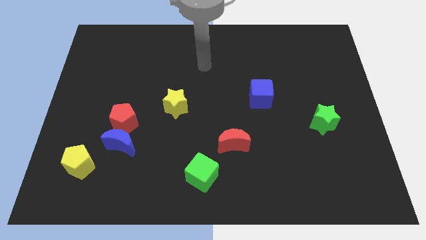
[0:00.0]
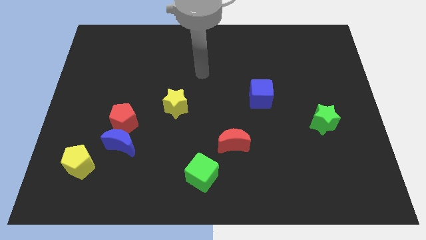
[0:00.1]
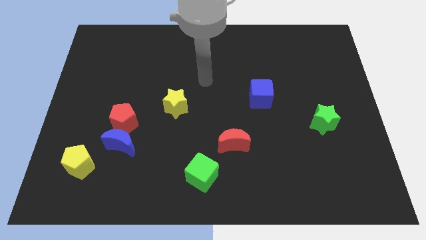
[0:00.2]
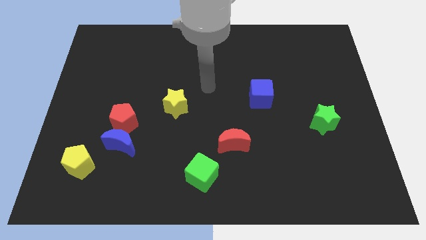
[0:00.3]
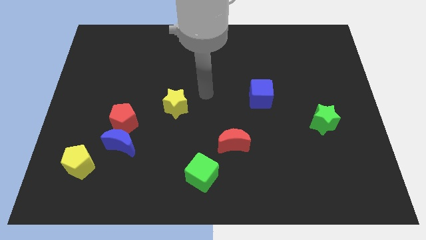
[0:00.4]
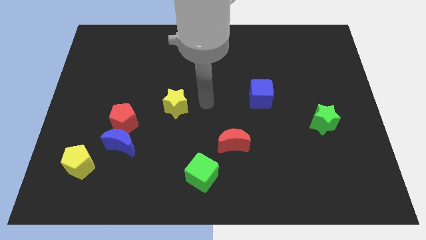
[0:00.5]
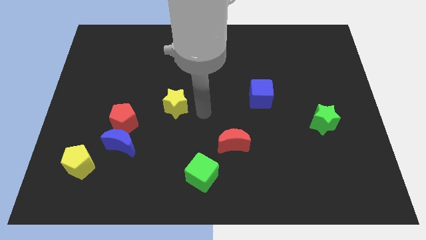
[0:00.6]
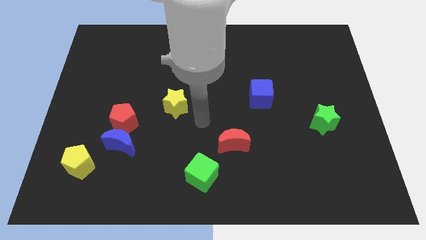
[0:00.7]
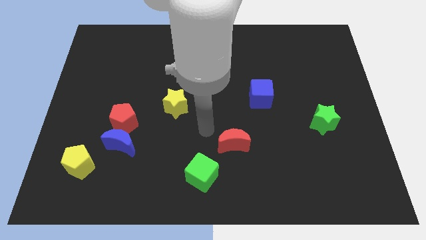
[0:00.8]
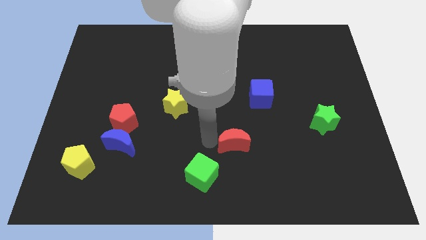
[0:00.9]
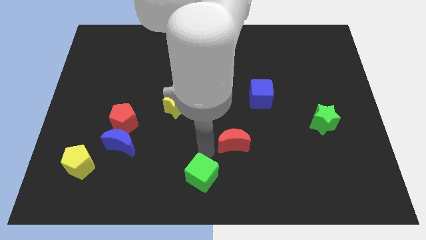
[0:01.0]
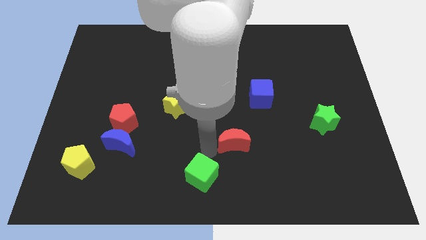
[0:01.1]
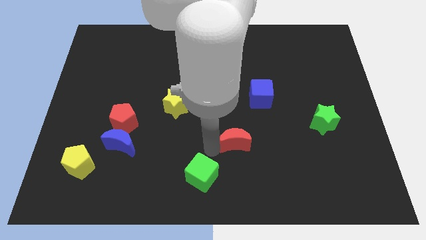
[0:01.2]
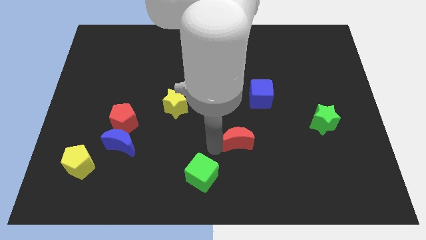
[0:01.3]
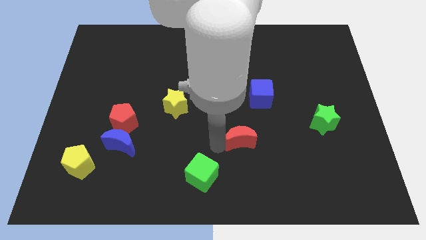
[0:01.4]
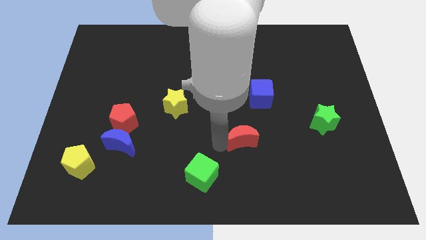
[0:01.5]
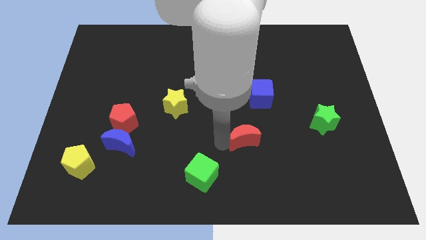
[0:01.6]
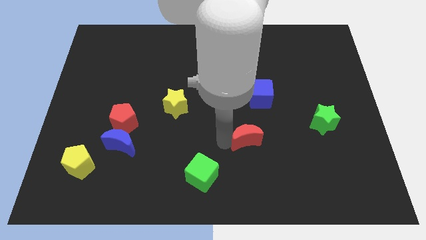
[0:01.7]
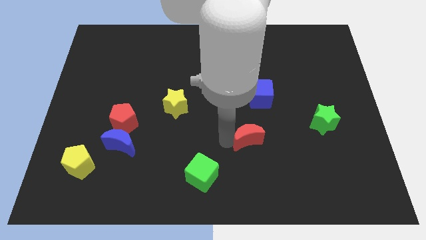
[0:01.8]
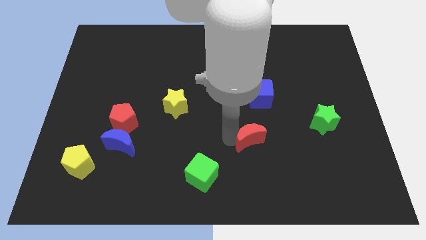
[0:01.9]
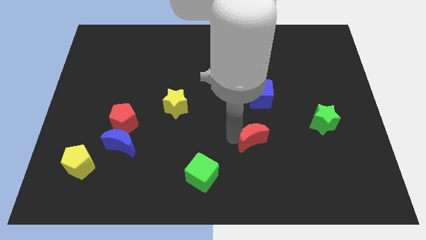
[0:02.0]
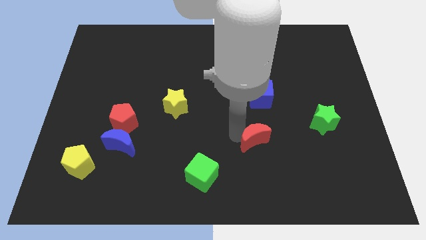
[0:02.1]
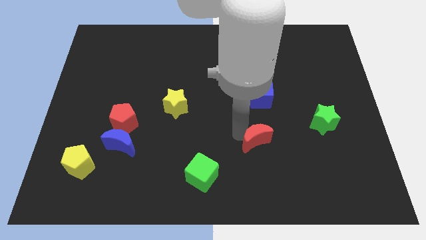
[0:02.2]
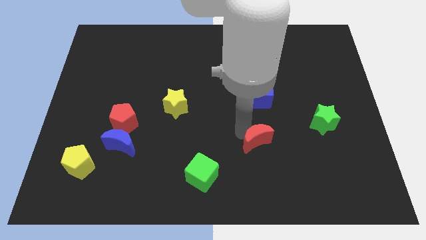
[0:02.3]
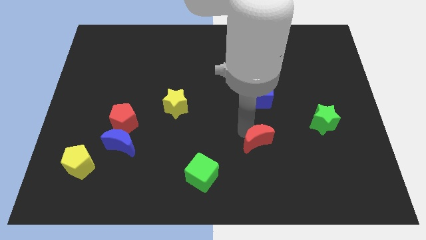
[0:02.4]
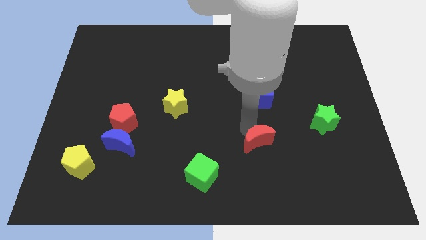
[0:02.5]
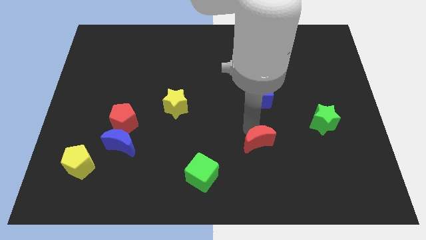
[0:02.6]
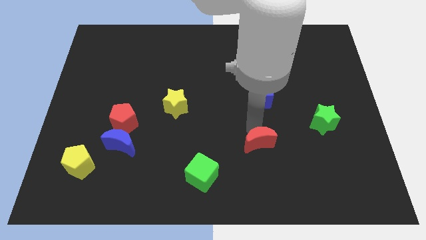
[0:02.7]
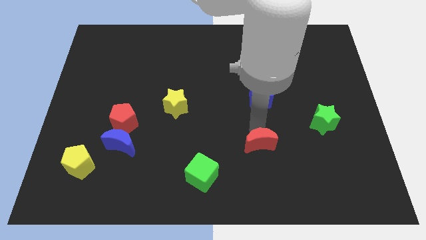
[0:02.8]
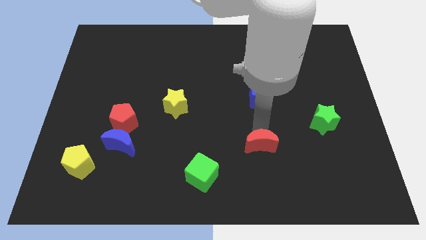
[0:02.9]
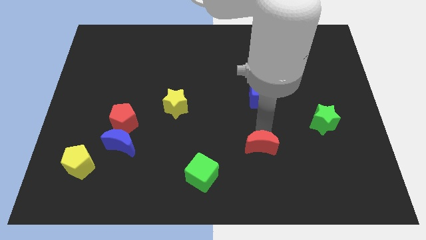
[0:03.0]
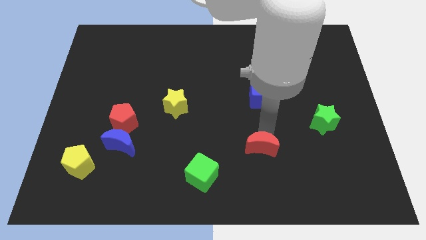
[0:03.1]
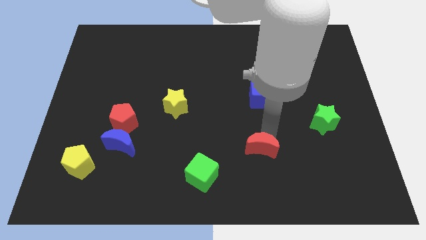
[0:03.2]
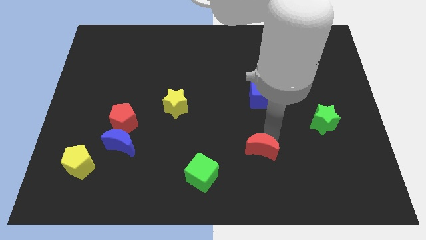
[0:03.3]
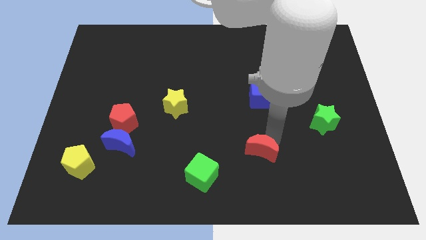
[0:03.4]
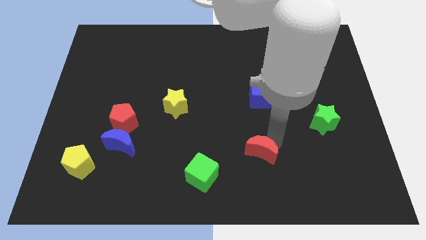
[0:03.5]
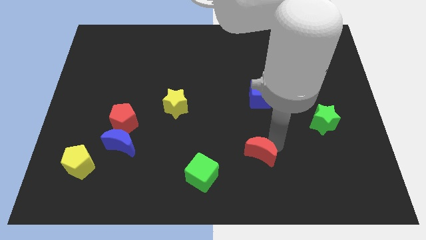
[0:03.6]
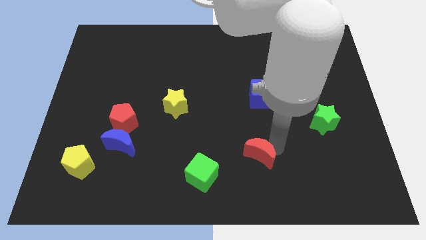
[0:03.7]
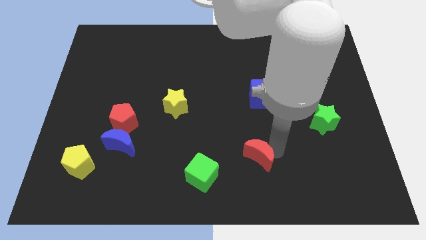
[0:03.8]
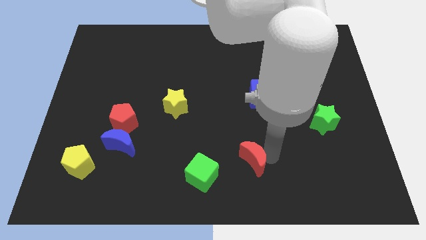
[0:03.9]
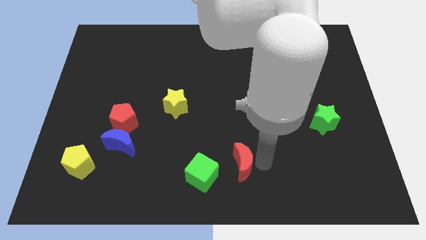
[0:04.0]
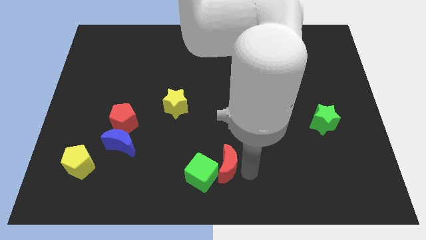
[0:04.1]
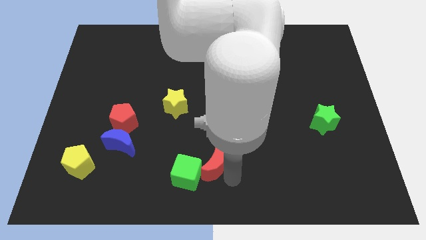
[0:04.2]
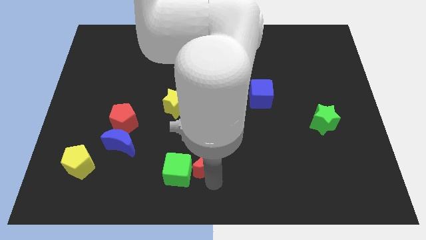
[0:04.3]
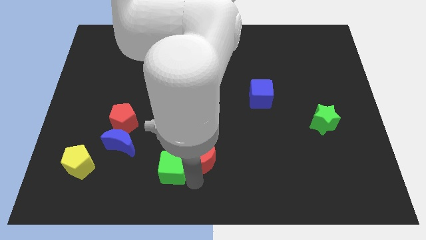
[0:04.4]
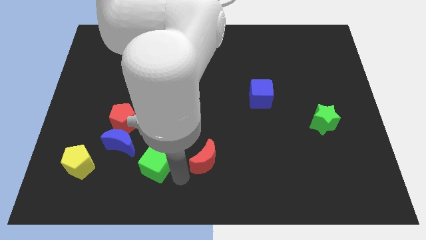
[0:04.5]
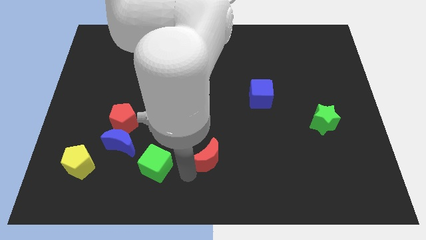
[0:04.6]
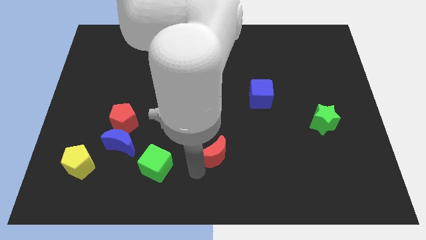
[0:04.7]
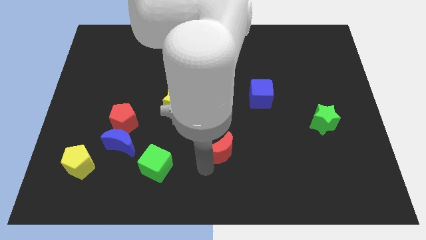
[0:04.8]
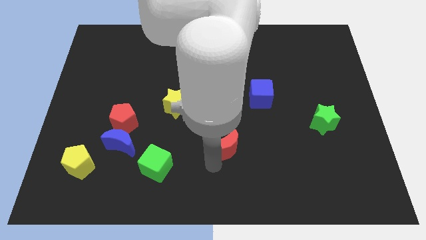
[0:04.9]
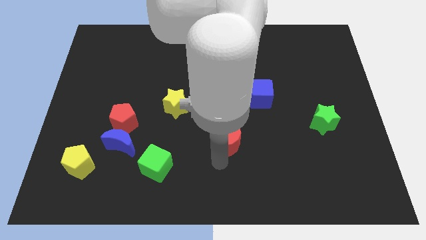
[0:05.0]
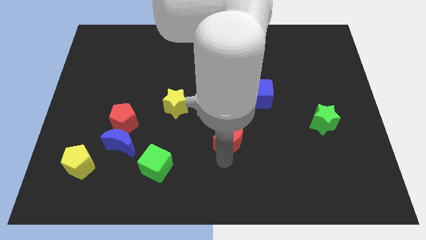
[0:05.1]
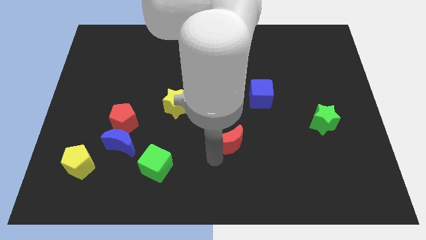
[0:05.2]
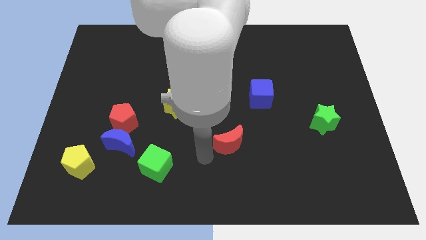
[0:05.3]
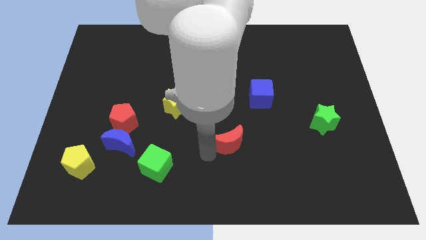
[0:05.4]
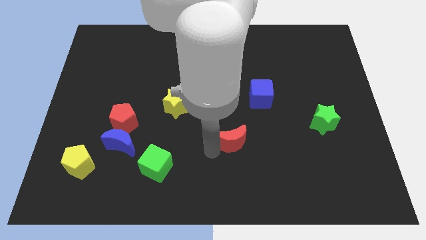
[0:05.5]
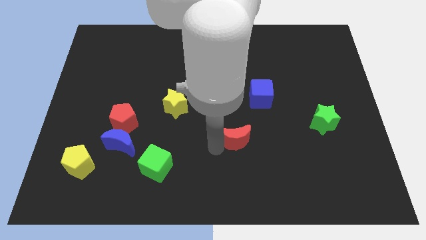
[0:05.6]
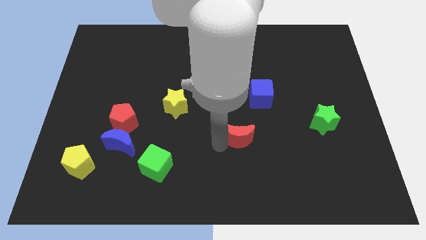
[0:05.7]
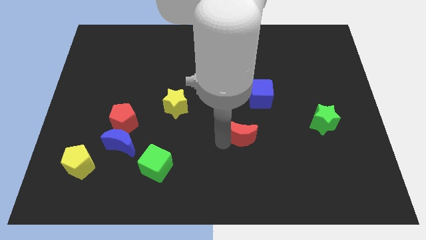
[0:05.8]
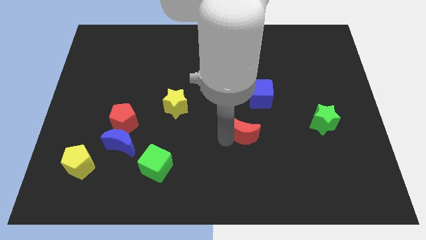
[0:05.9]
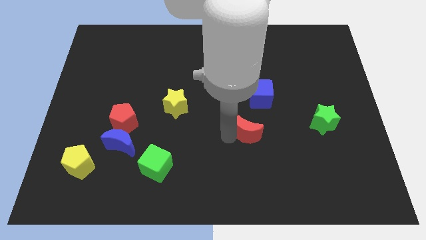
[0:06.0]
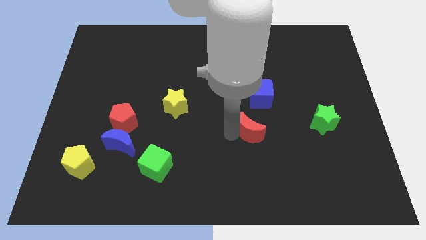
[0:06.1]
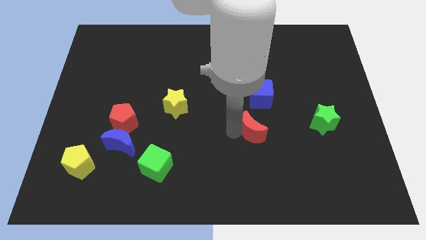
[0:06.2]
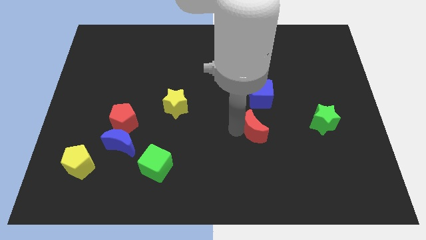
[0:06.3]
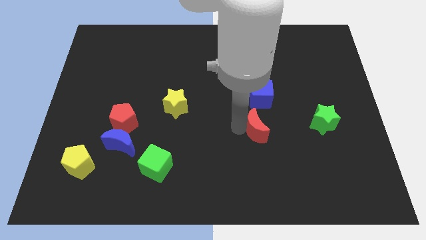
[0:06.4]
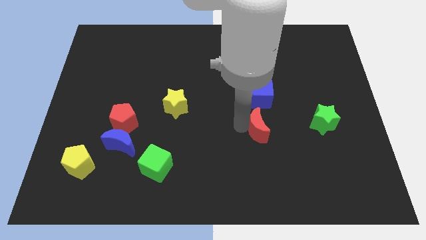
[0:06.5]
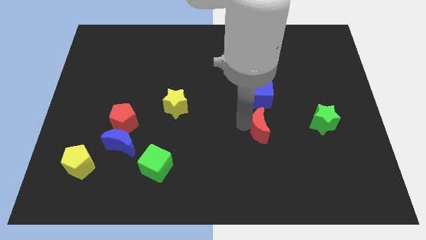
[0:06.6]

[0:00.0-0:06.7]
push the red moon diagonally up and right a bit

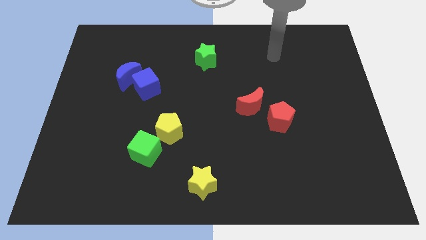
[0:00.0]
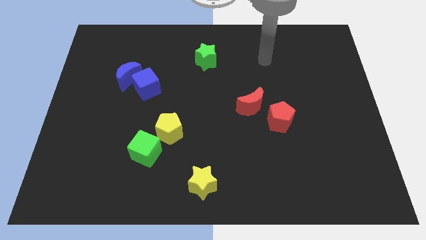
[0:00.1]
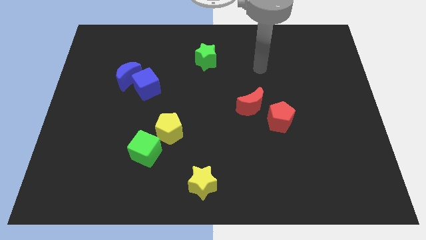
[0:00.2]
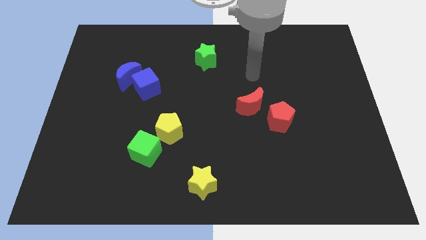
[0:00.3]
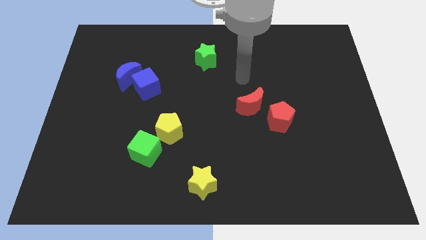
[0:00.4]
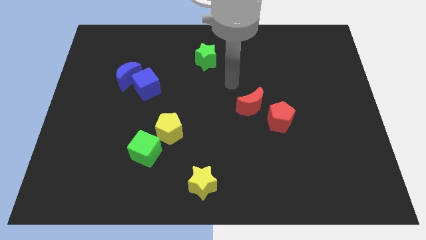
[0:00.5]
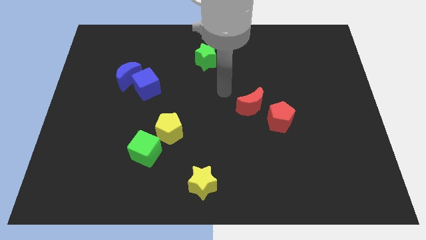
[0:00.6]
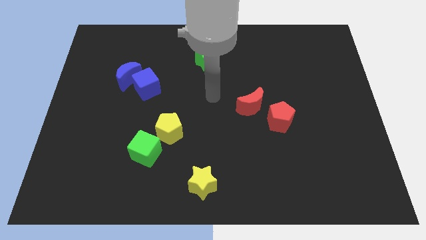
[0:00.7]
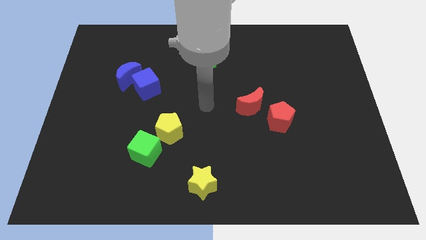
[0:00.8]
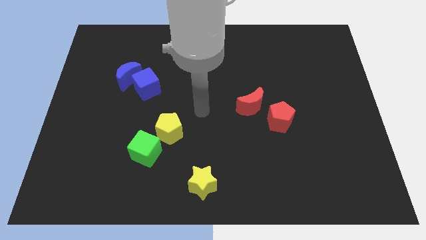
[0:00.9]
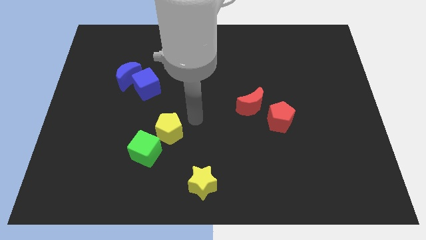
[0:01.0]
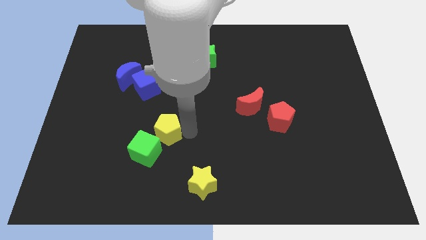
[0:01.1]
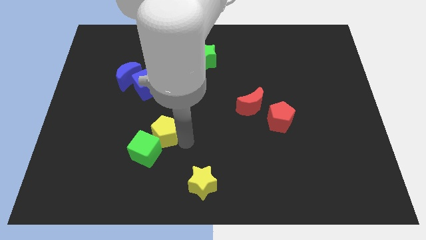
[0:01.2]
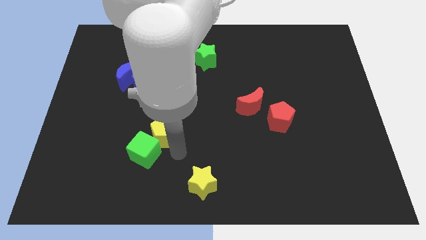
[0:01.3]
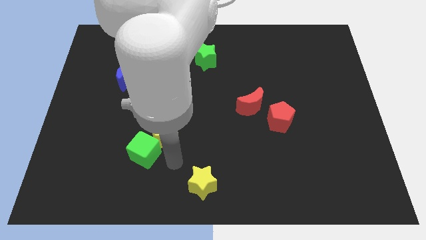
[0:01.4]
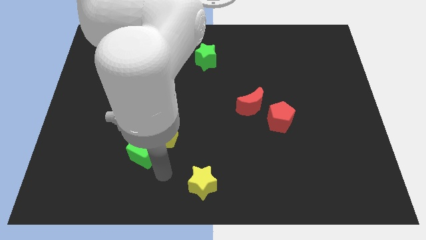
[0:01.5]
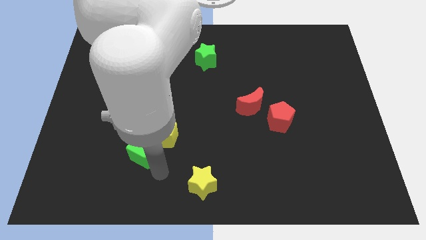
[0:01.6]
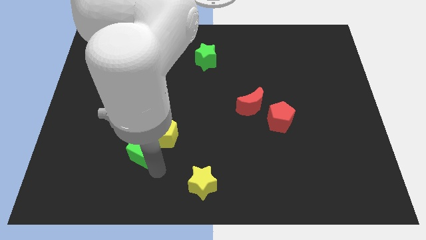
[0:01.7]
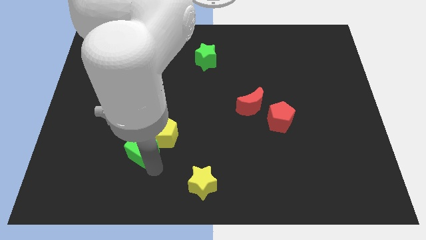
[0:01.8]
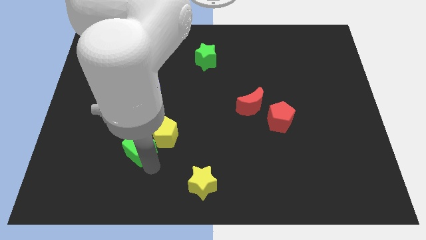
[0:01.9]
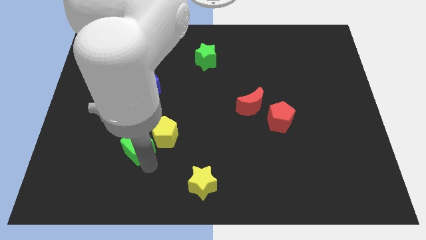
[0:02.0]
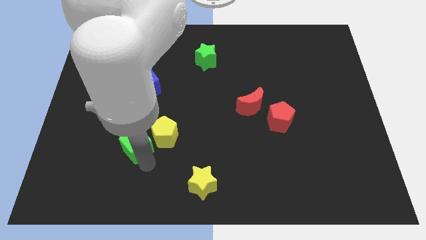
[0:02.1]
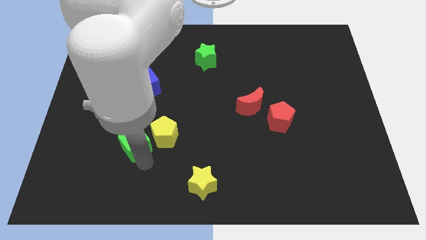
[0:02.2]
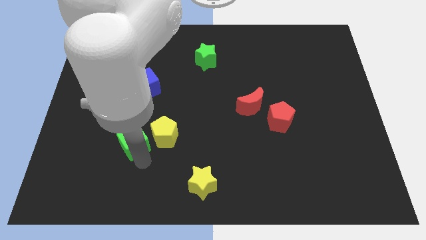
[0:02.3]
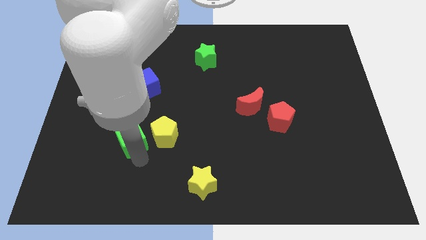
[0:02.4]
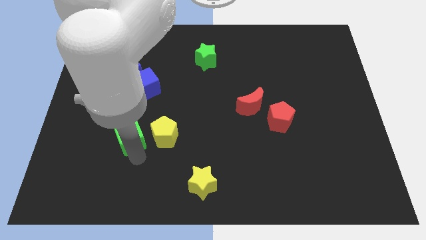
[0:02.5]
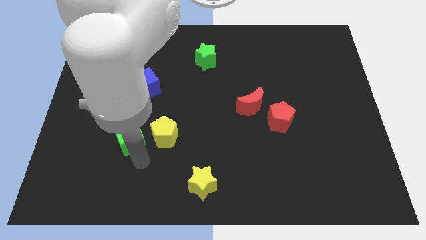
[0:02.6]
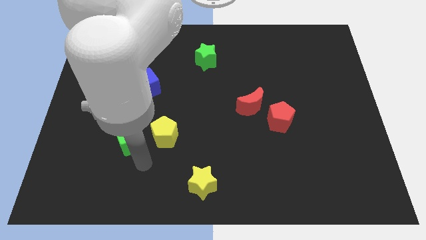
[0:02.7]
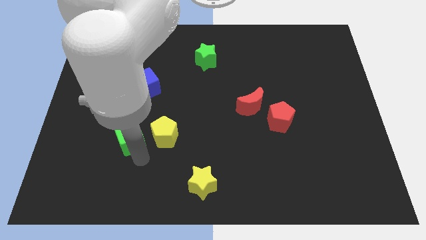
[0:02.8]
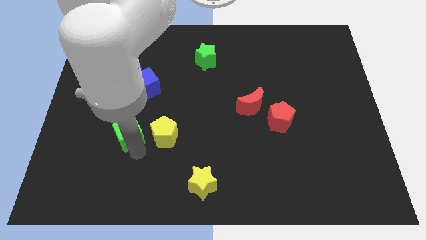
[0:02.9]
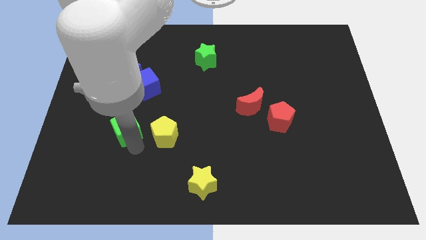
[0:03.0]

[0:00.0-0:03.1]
slide the green cube a little up and to the left
